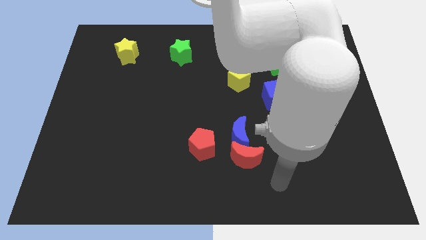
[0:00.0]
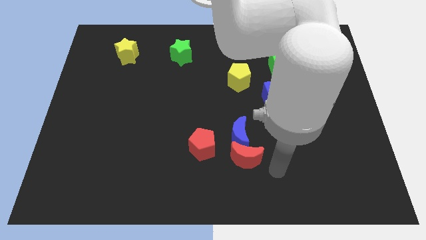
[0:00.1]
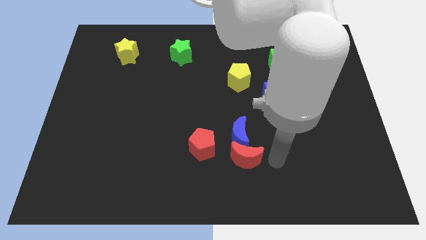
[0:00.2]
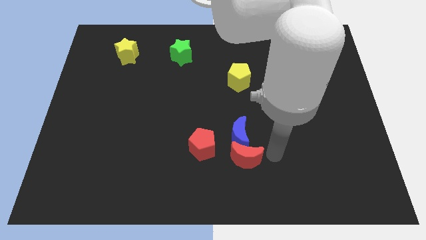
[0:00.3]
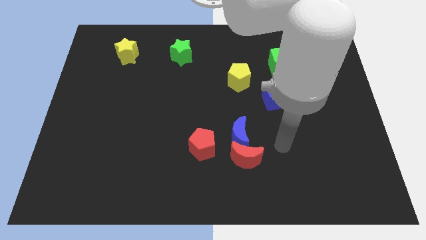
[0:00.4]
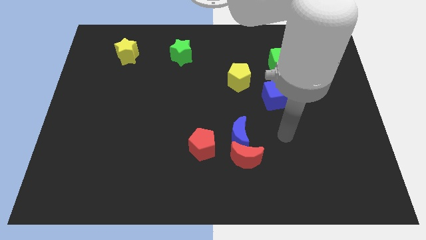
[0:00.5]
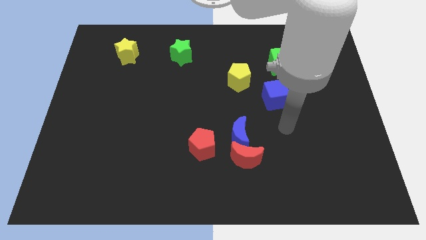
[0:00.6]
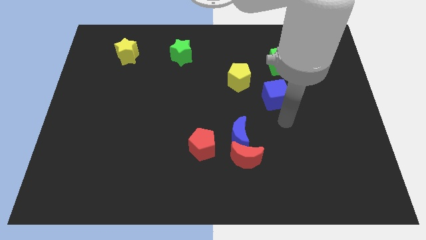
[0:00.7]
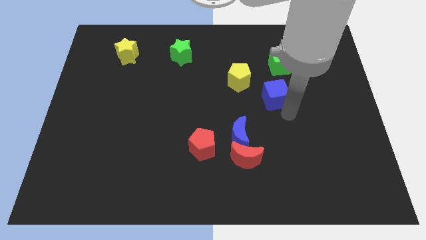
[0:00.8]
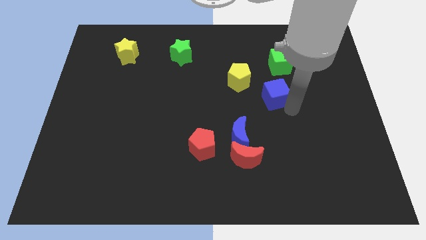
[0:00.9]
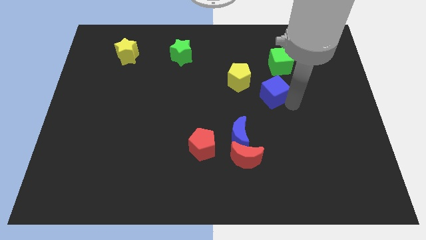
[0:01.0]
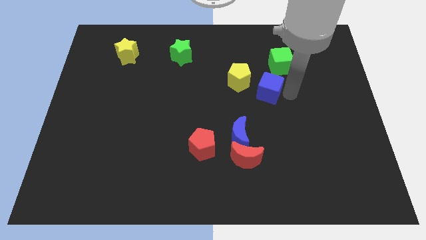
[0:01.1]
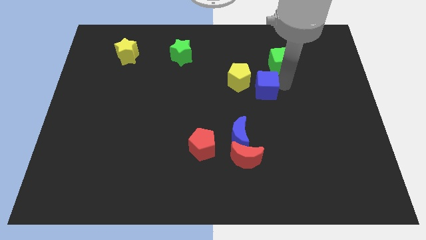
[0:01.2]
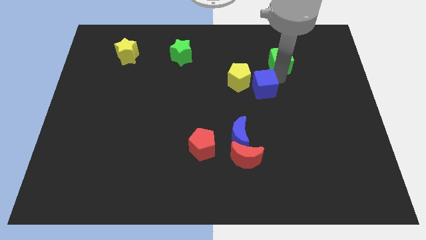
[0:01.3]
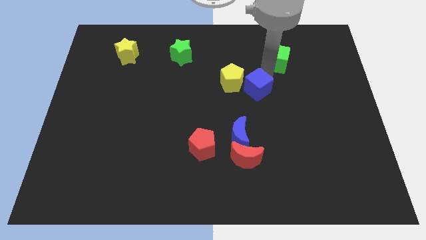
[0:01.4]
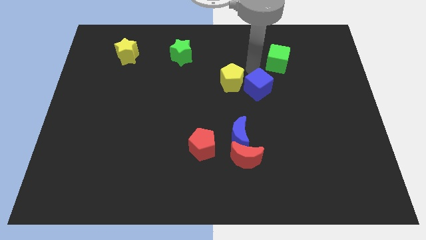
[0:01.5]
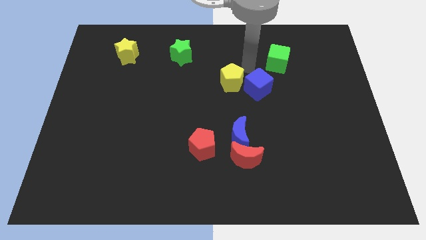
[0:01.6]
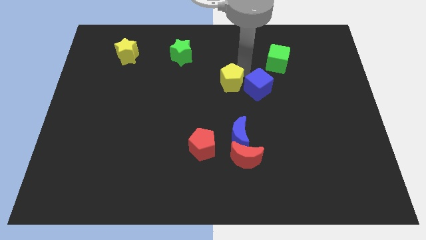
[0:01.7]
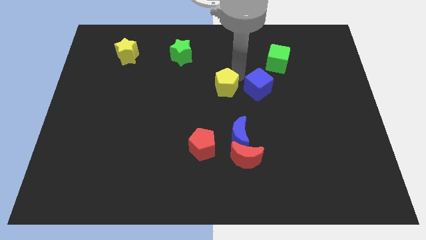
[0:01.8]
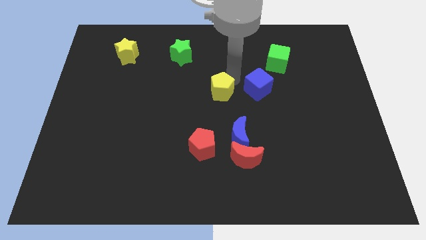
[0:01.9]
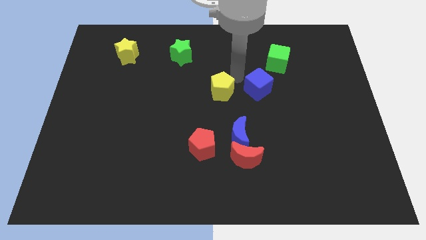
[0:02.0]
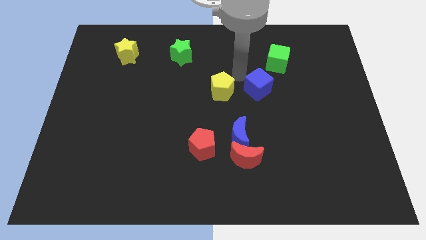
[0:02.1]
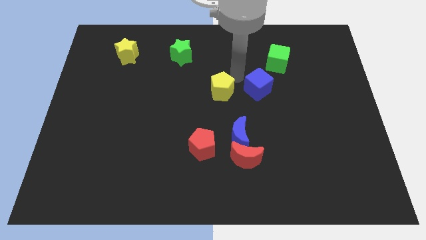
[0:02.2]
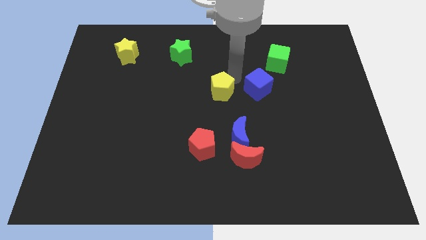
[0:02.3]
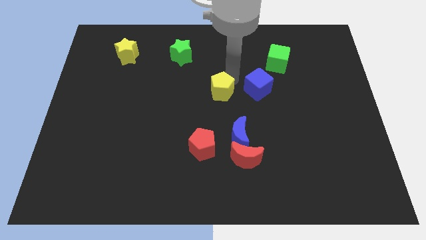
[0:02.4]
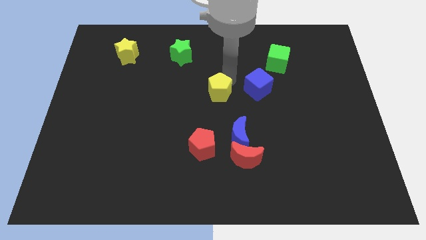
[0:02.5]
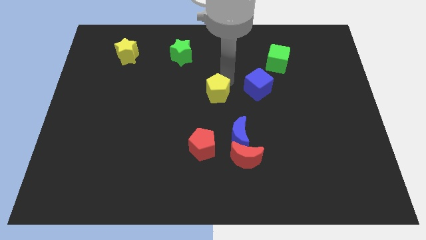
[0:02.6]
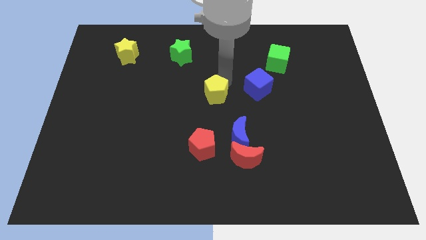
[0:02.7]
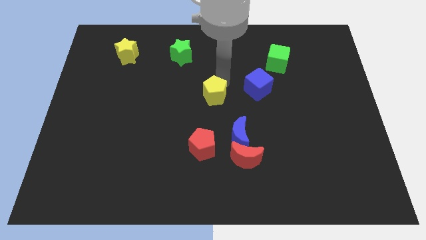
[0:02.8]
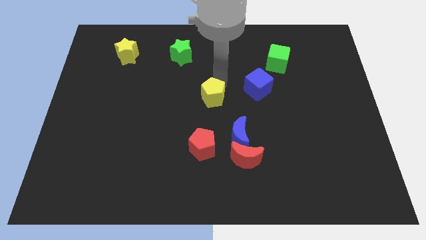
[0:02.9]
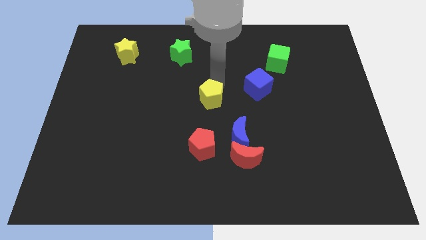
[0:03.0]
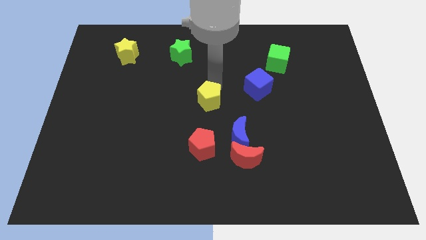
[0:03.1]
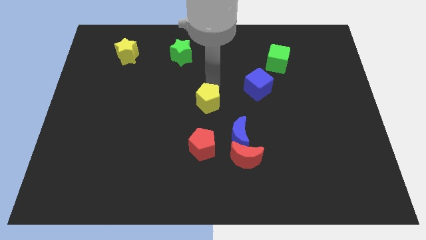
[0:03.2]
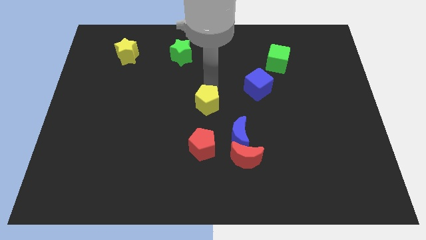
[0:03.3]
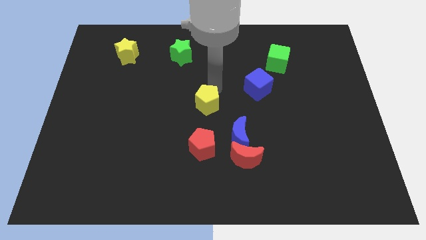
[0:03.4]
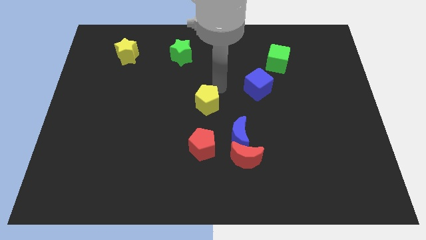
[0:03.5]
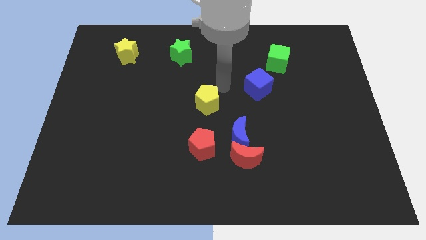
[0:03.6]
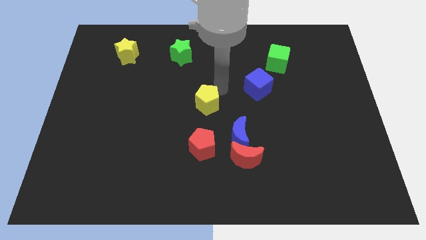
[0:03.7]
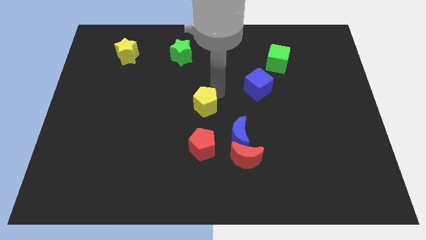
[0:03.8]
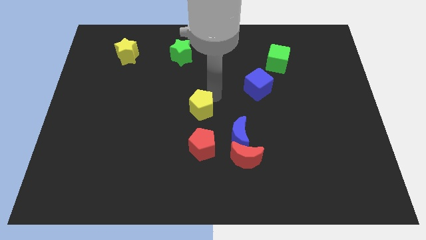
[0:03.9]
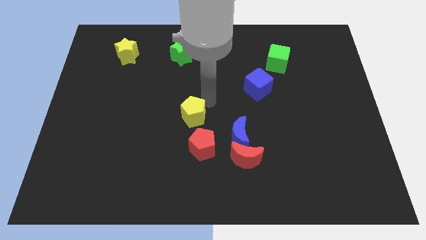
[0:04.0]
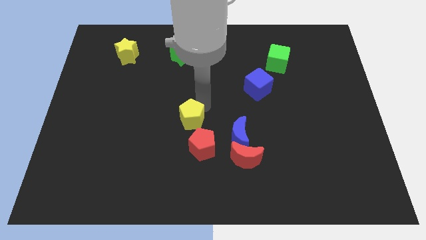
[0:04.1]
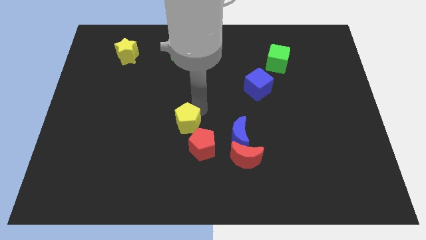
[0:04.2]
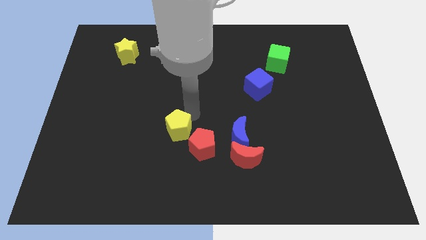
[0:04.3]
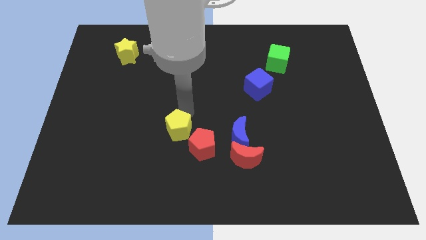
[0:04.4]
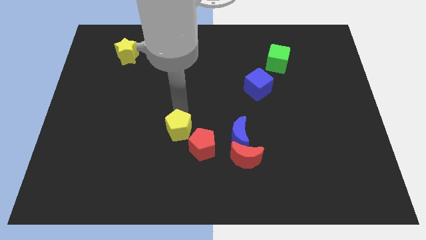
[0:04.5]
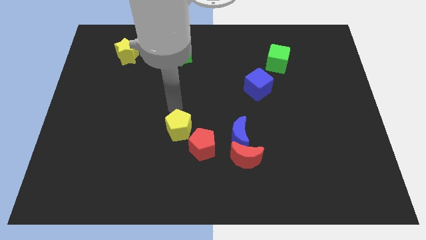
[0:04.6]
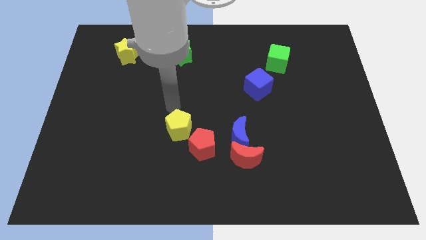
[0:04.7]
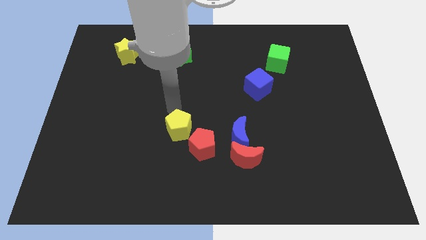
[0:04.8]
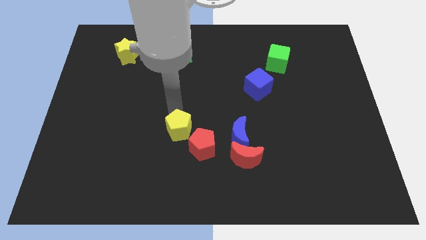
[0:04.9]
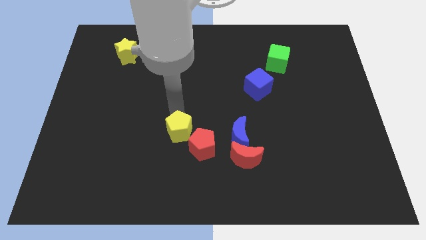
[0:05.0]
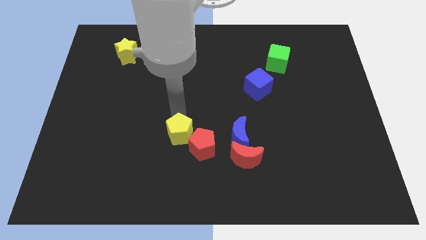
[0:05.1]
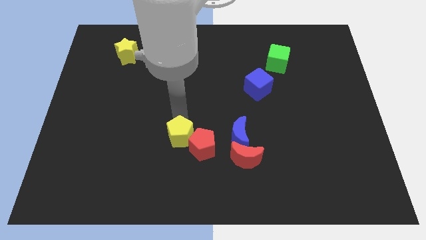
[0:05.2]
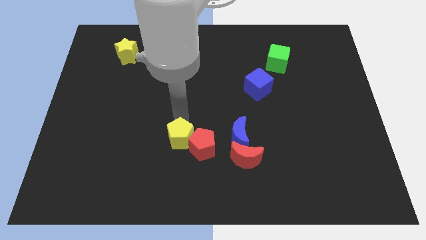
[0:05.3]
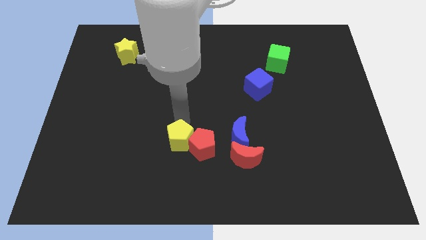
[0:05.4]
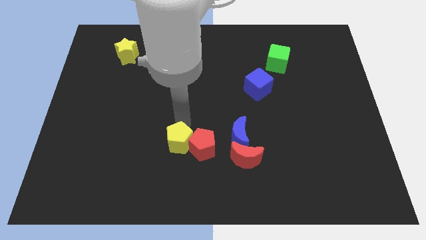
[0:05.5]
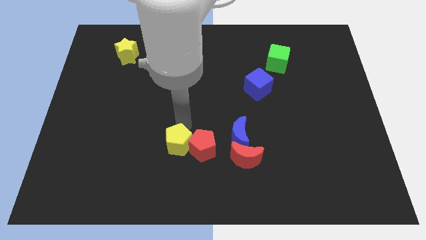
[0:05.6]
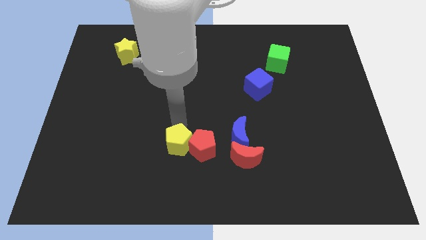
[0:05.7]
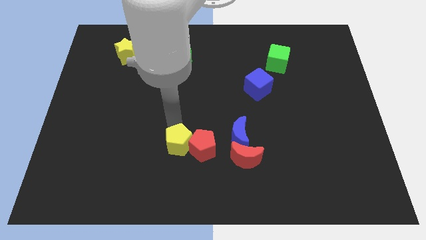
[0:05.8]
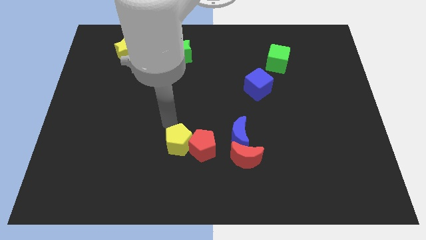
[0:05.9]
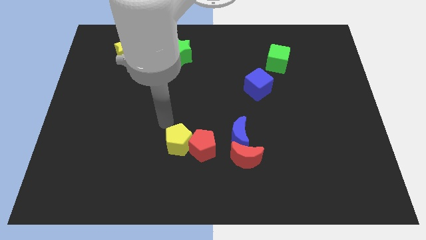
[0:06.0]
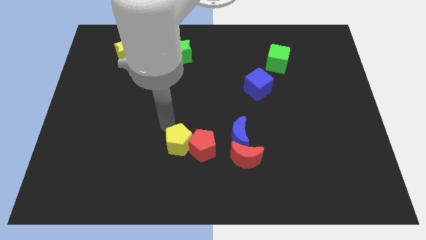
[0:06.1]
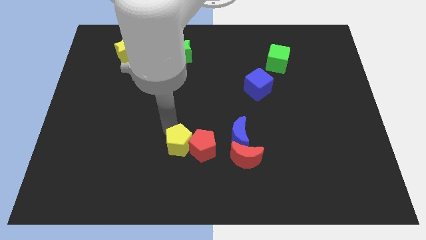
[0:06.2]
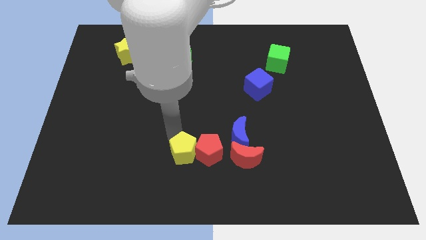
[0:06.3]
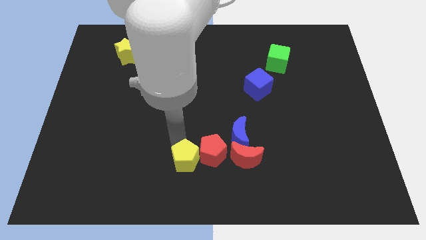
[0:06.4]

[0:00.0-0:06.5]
slide the yellow pentagon to the bottom
